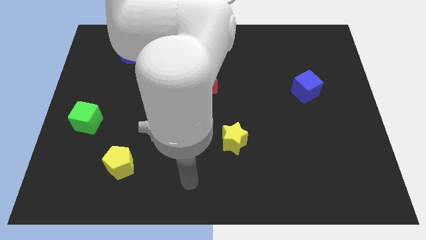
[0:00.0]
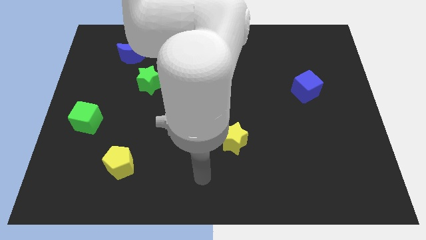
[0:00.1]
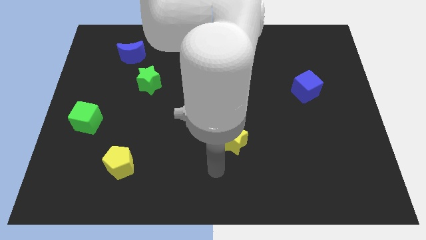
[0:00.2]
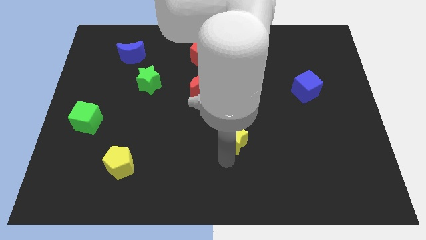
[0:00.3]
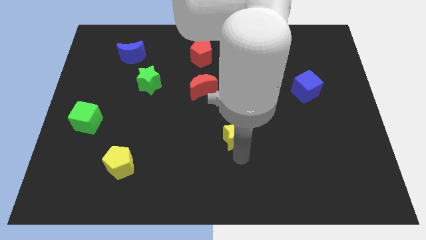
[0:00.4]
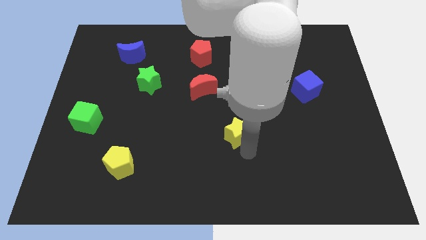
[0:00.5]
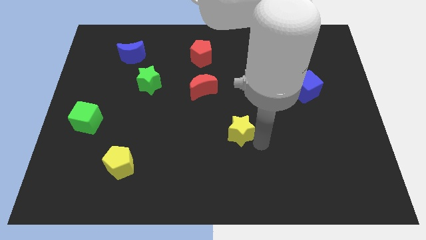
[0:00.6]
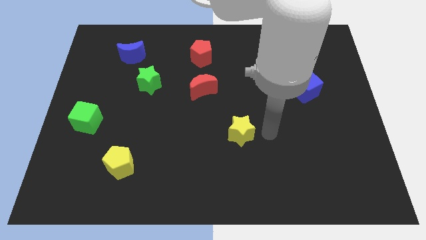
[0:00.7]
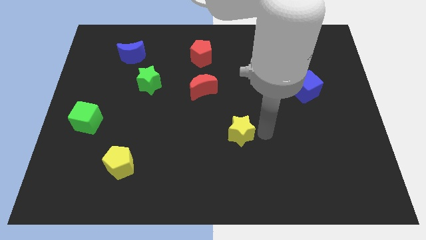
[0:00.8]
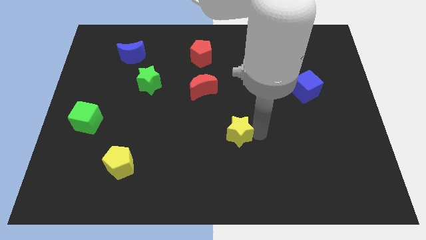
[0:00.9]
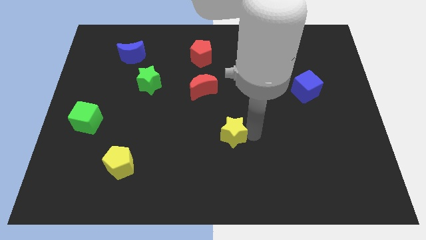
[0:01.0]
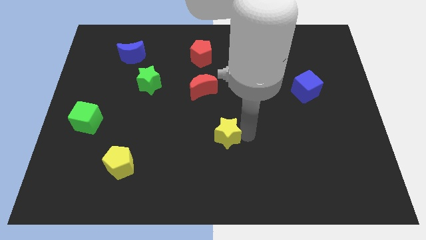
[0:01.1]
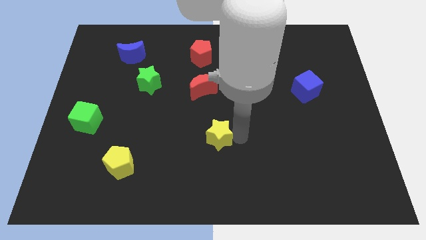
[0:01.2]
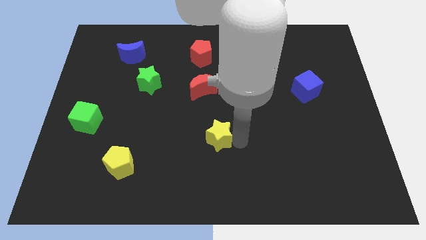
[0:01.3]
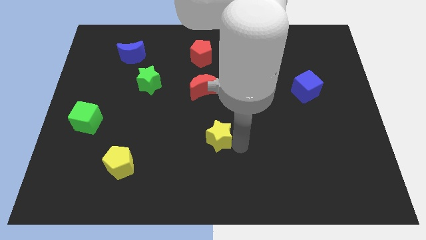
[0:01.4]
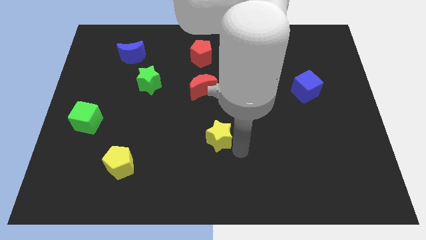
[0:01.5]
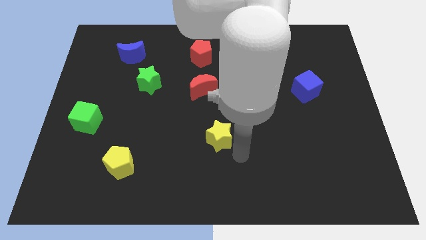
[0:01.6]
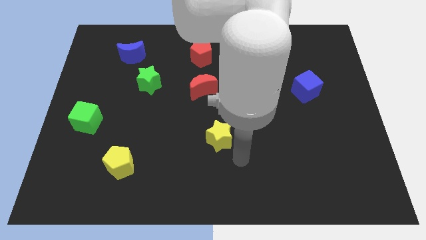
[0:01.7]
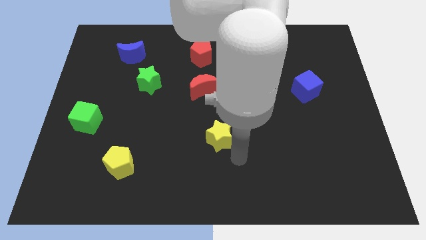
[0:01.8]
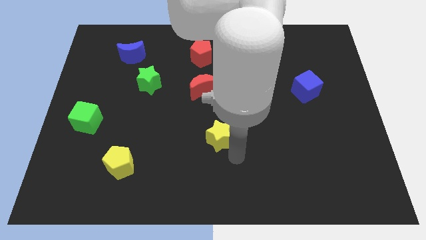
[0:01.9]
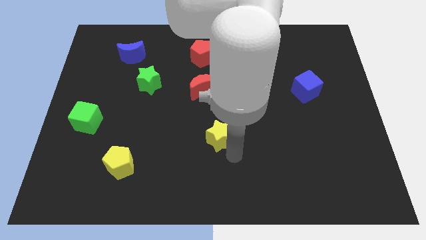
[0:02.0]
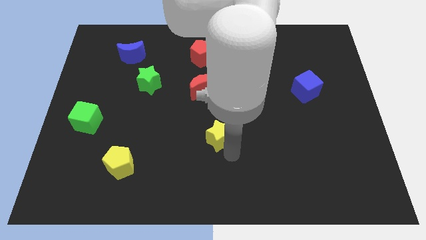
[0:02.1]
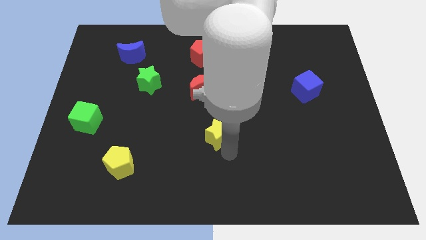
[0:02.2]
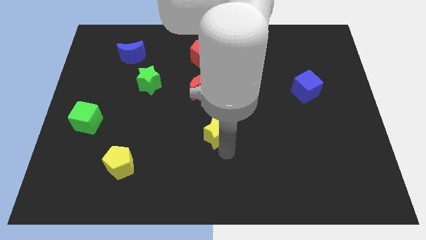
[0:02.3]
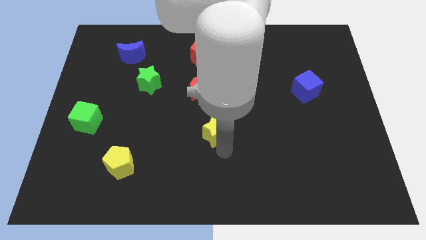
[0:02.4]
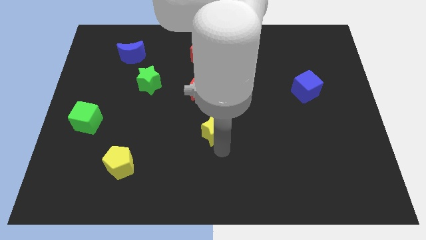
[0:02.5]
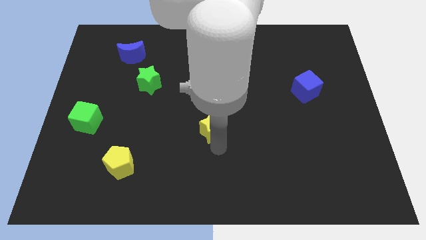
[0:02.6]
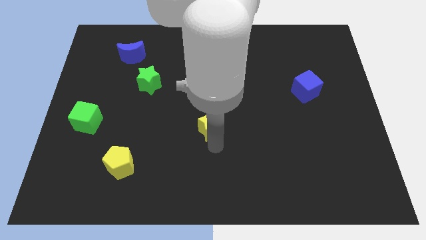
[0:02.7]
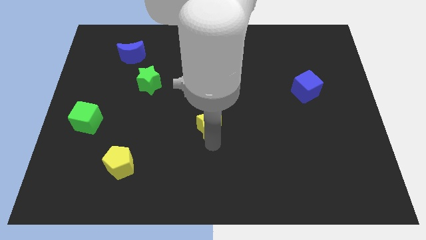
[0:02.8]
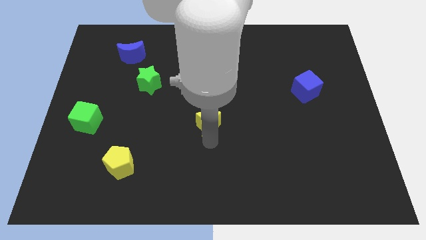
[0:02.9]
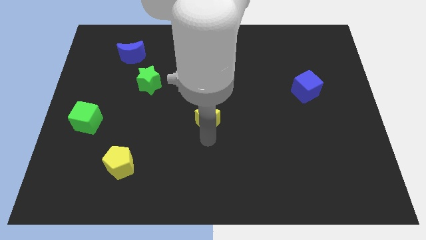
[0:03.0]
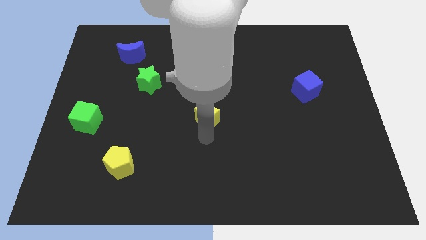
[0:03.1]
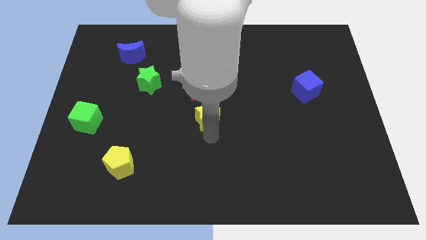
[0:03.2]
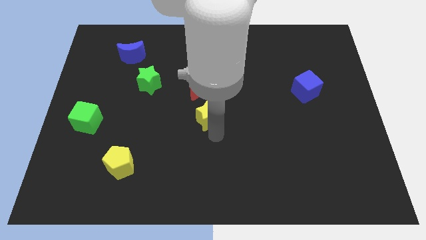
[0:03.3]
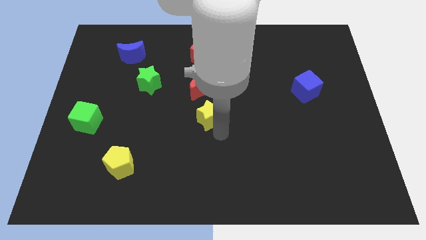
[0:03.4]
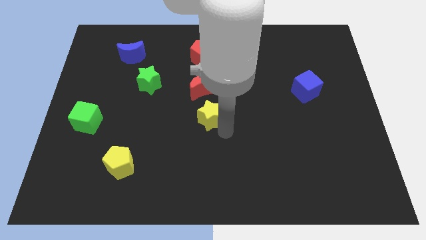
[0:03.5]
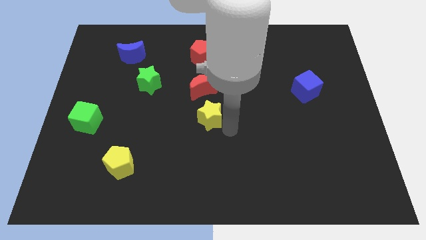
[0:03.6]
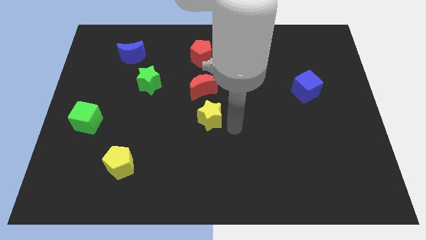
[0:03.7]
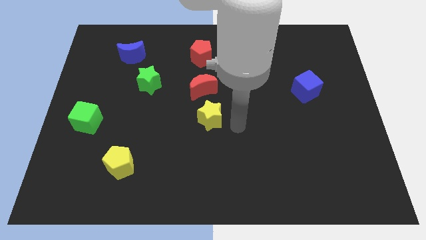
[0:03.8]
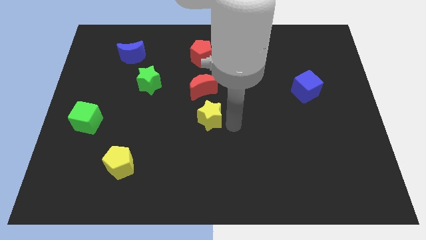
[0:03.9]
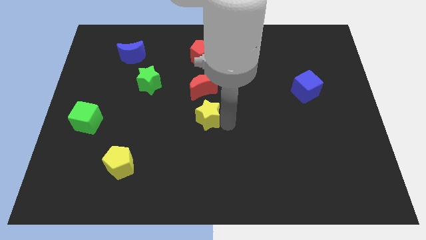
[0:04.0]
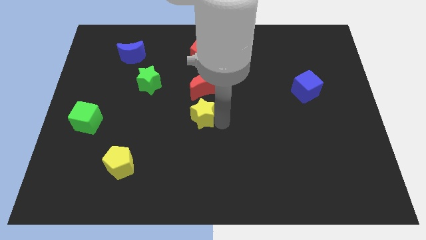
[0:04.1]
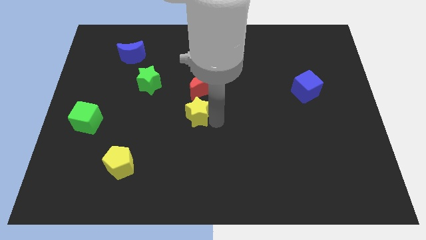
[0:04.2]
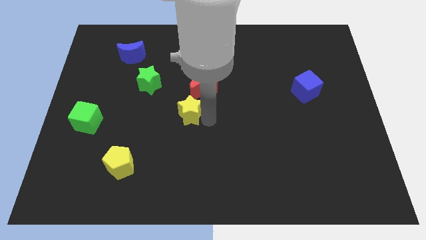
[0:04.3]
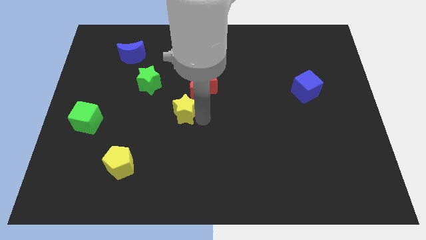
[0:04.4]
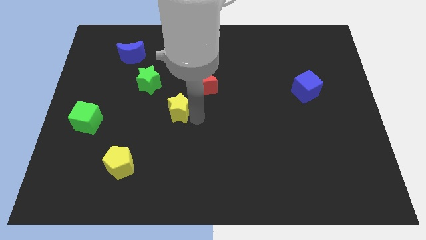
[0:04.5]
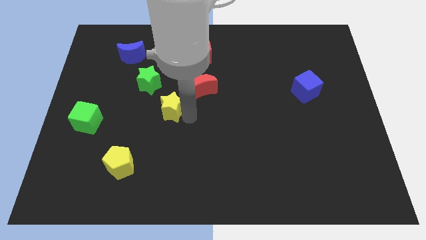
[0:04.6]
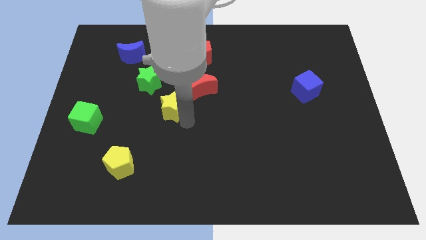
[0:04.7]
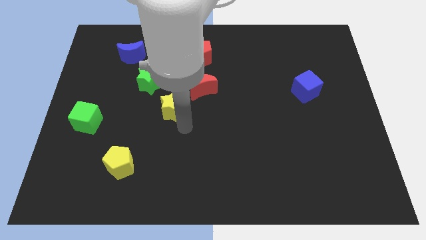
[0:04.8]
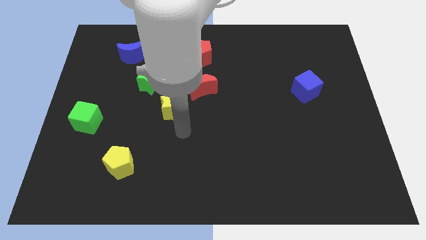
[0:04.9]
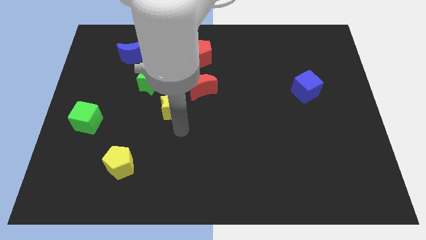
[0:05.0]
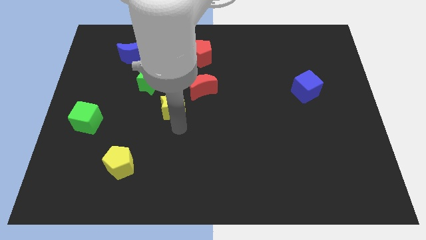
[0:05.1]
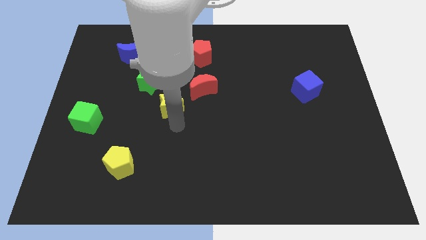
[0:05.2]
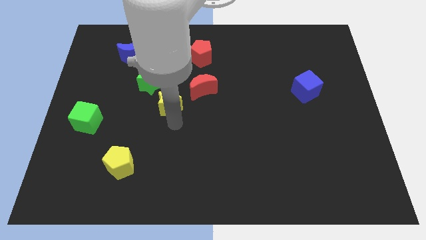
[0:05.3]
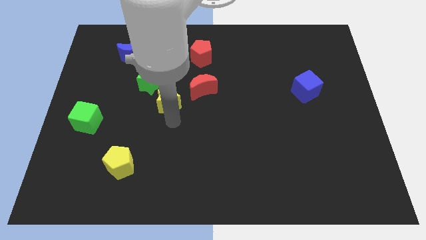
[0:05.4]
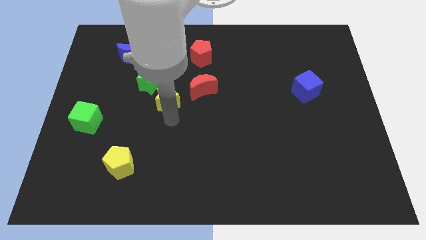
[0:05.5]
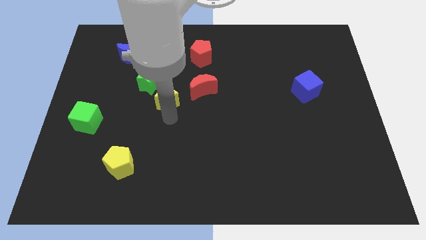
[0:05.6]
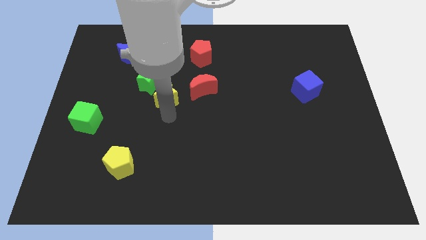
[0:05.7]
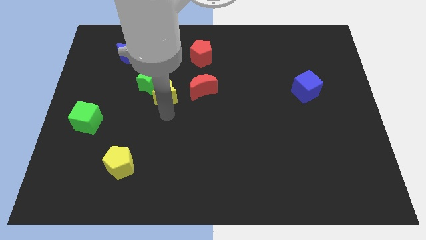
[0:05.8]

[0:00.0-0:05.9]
move the yellow star to the green star

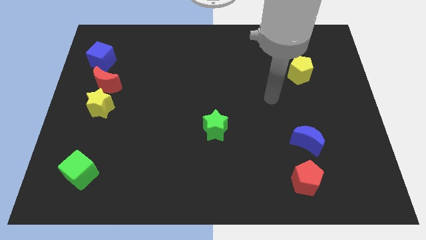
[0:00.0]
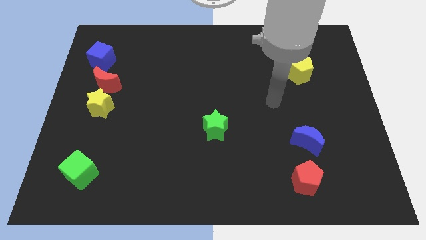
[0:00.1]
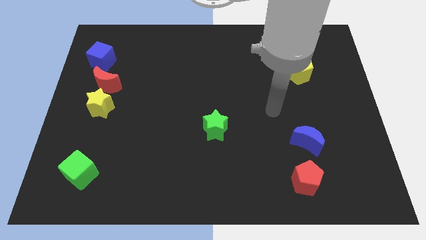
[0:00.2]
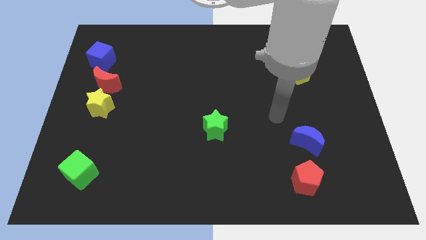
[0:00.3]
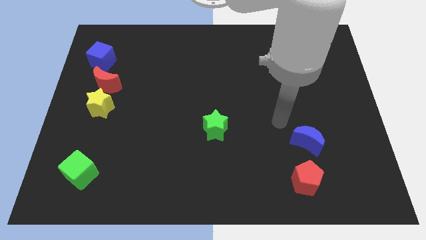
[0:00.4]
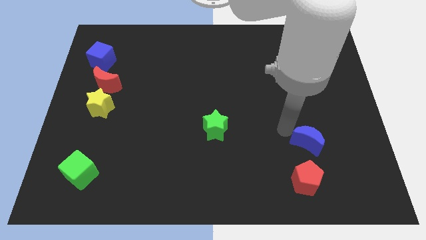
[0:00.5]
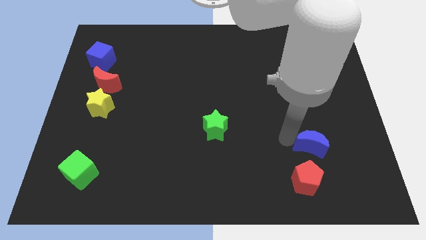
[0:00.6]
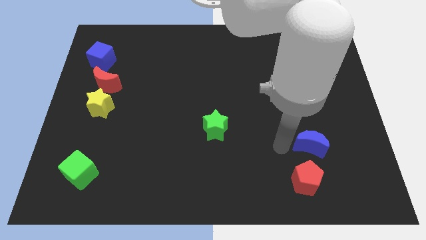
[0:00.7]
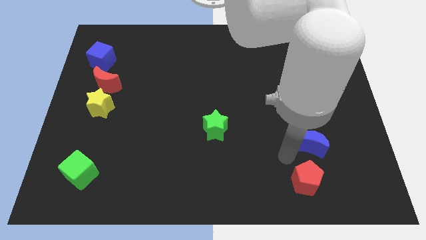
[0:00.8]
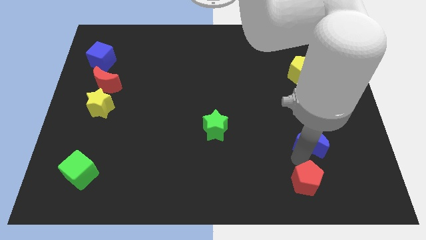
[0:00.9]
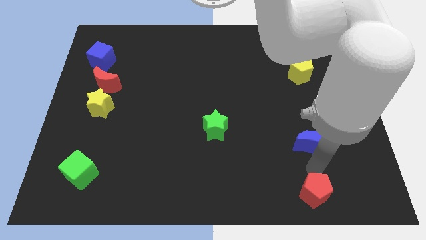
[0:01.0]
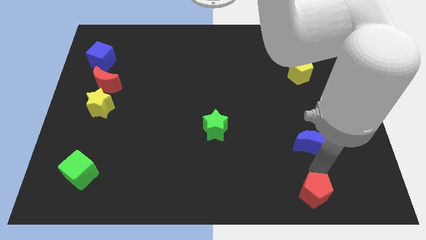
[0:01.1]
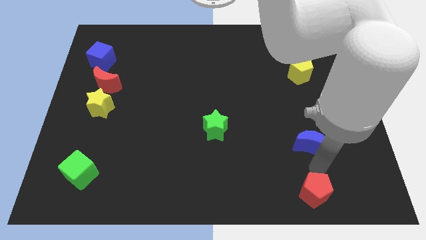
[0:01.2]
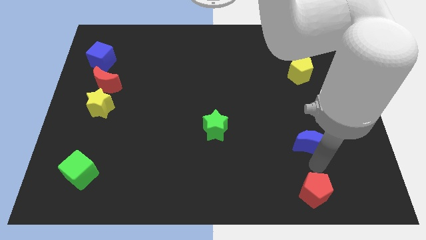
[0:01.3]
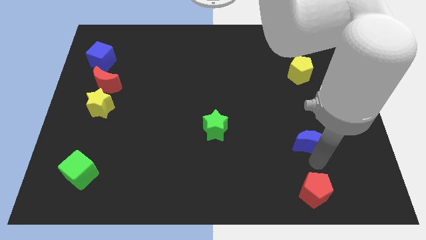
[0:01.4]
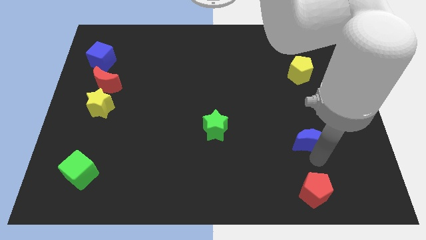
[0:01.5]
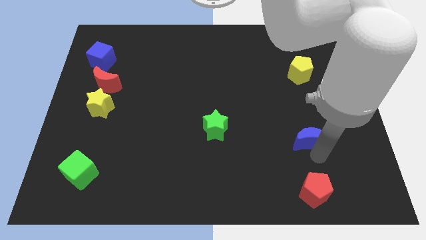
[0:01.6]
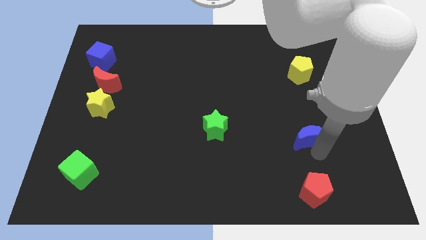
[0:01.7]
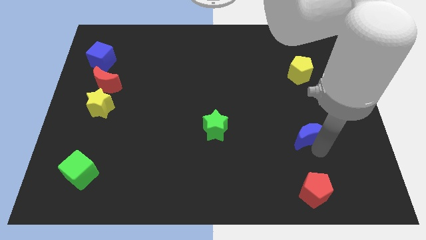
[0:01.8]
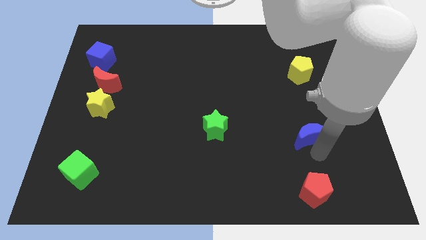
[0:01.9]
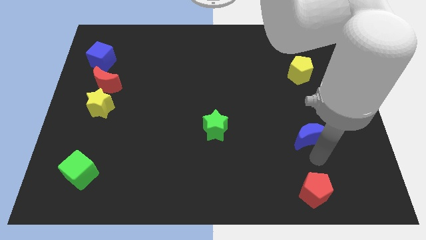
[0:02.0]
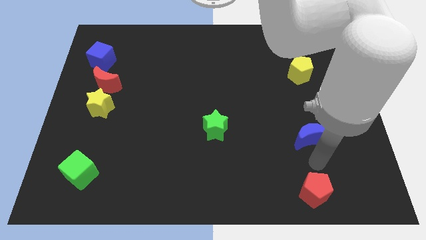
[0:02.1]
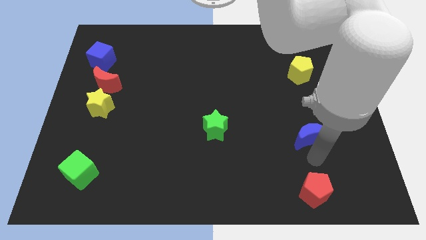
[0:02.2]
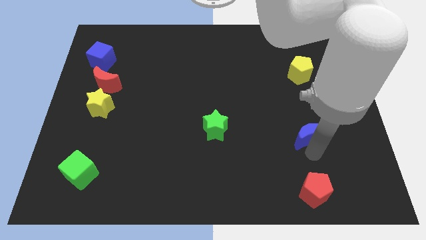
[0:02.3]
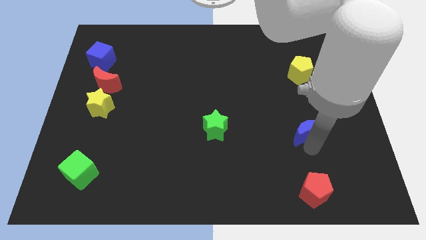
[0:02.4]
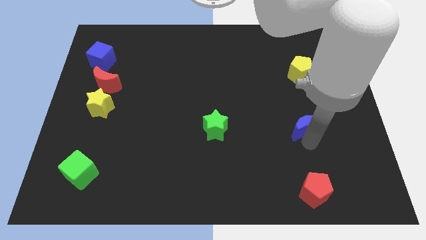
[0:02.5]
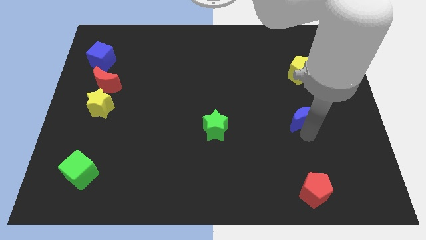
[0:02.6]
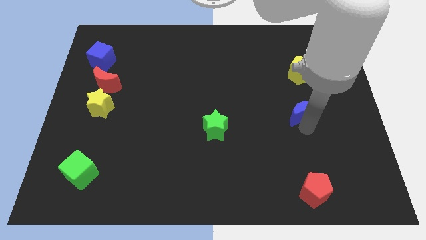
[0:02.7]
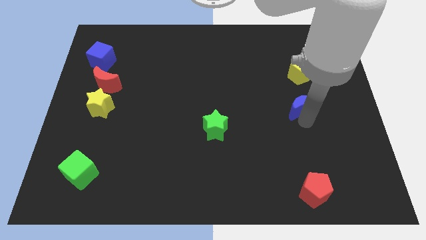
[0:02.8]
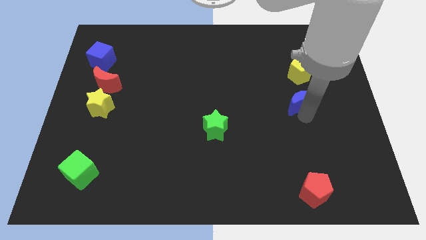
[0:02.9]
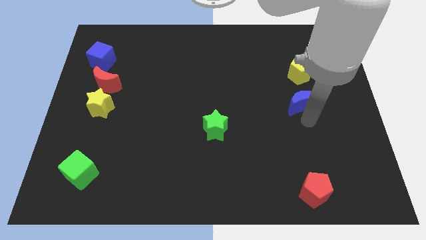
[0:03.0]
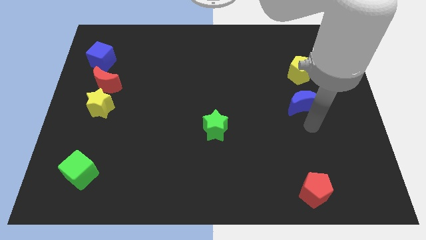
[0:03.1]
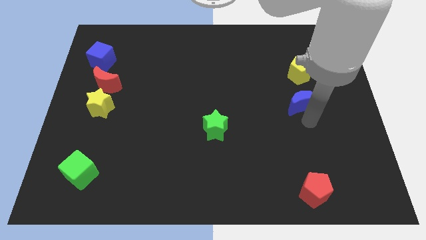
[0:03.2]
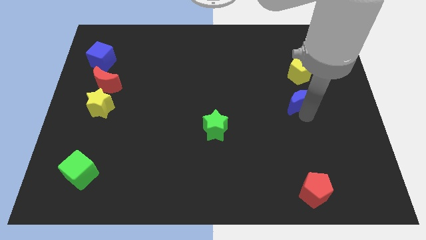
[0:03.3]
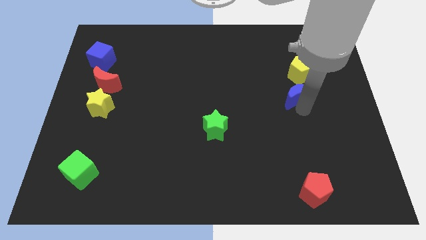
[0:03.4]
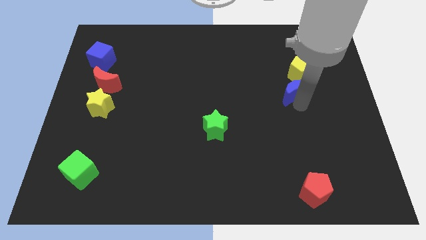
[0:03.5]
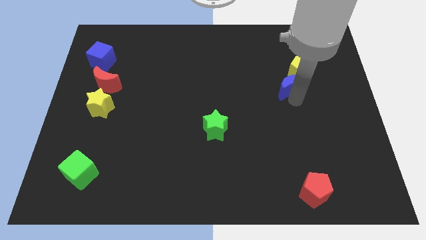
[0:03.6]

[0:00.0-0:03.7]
slide the blue moon to the yellow pentagon
